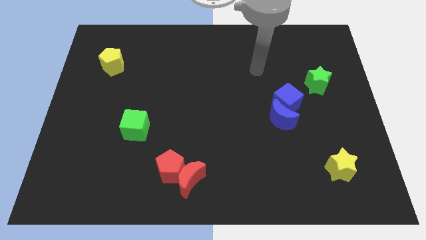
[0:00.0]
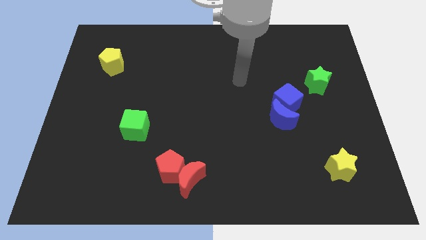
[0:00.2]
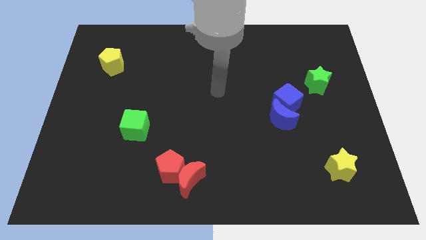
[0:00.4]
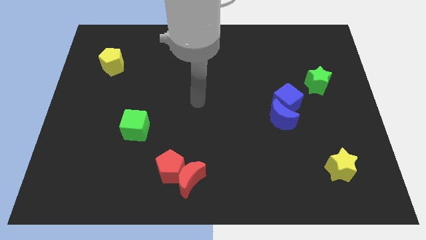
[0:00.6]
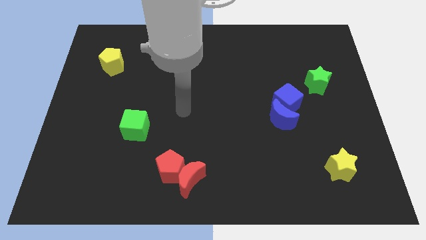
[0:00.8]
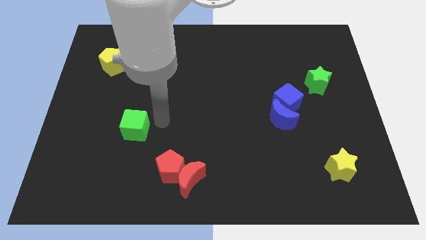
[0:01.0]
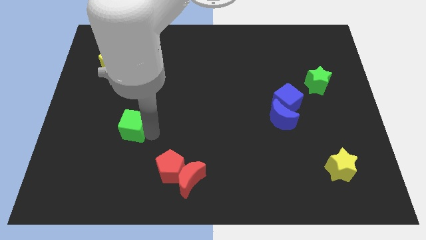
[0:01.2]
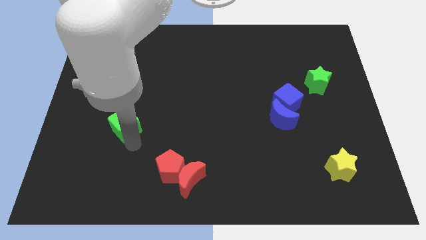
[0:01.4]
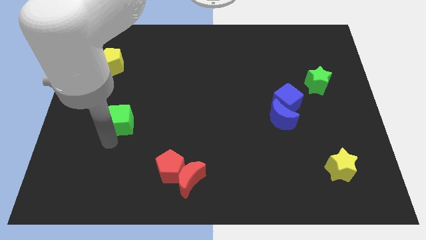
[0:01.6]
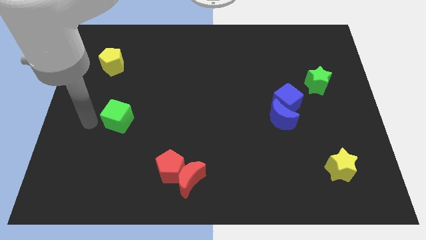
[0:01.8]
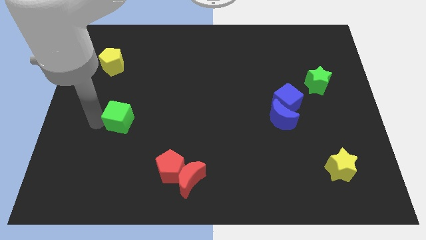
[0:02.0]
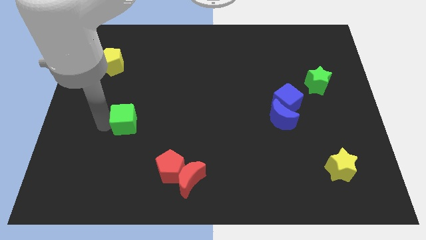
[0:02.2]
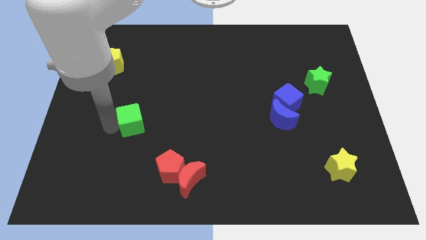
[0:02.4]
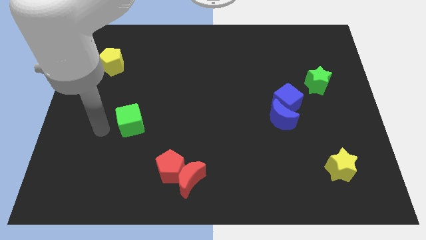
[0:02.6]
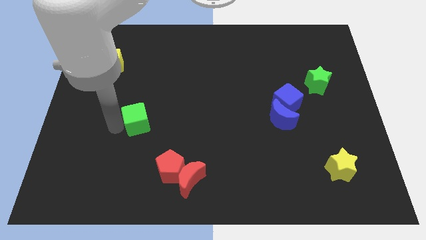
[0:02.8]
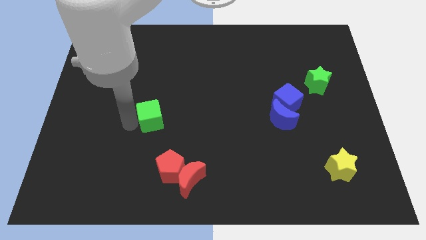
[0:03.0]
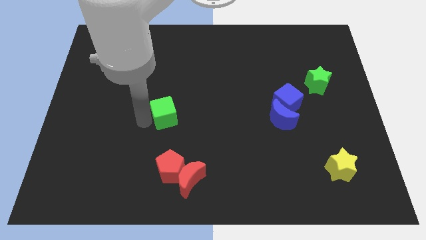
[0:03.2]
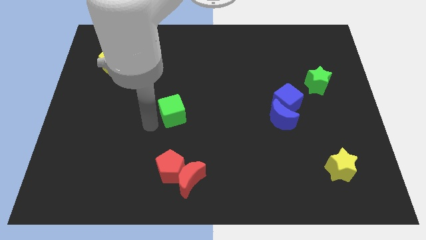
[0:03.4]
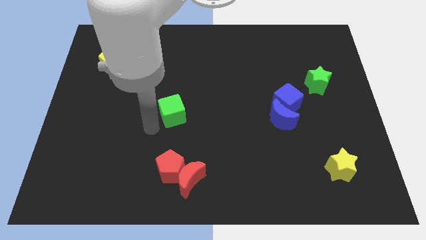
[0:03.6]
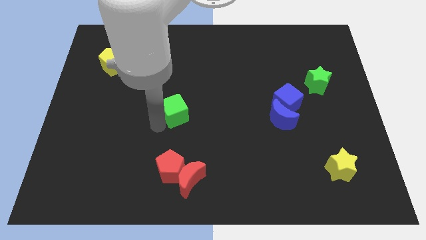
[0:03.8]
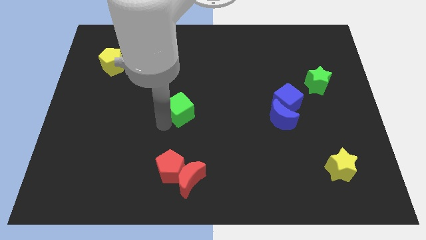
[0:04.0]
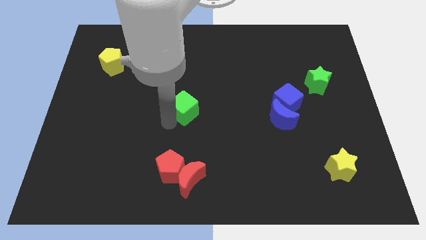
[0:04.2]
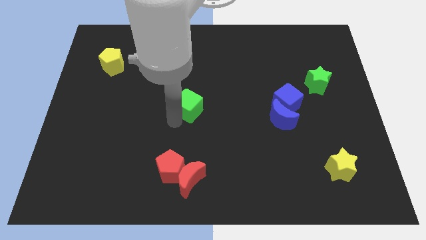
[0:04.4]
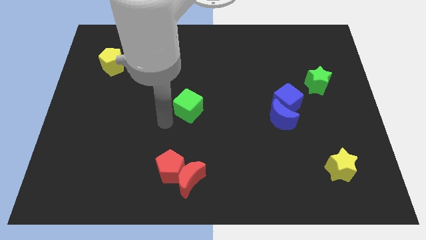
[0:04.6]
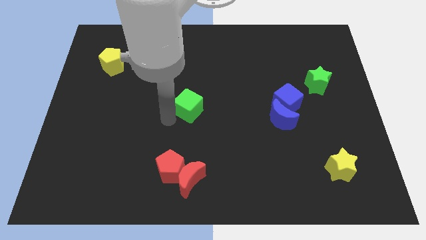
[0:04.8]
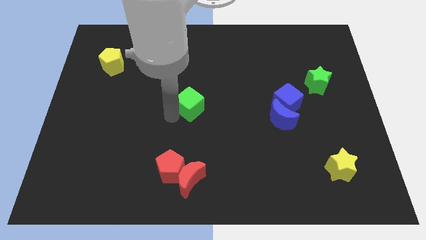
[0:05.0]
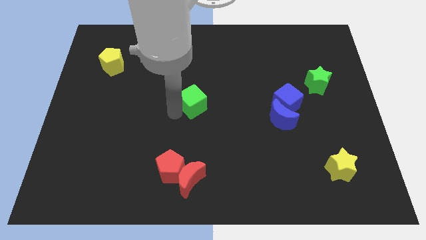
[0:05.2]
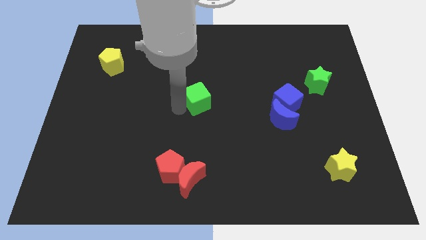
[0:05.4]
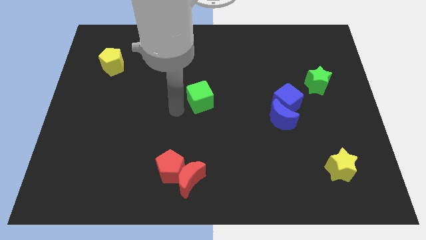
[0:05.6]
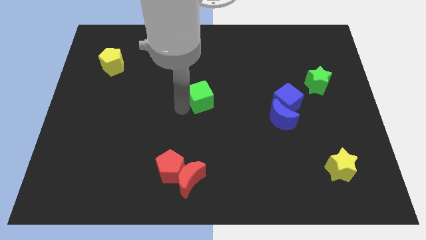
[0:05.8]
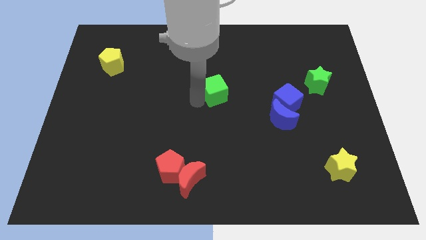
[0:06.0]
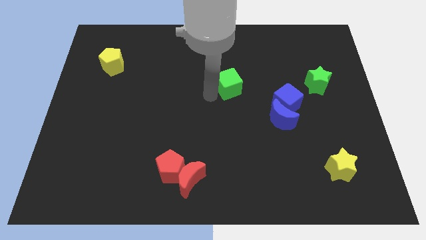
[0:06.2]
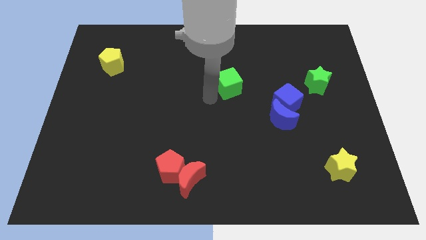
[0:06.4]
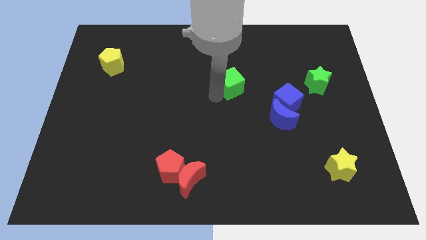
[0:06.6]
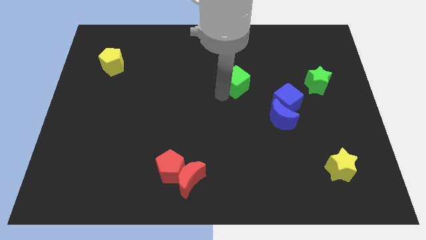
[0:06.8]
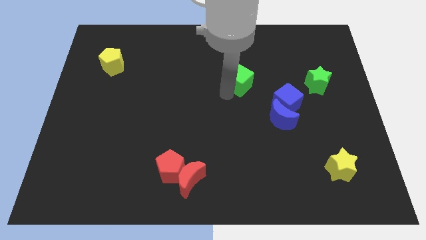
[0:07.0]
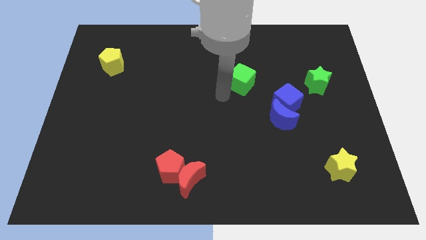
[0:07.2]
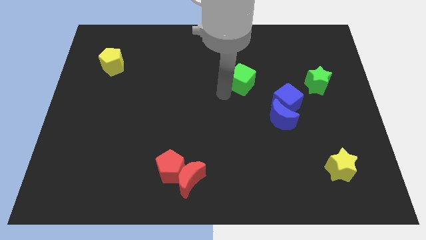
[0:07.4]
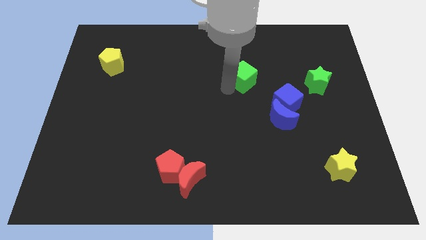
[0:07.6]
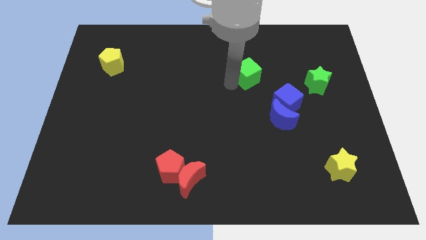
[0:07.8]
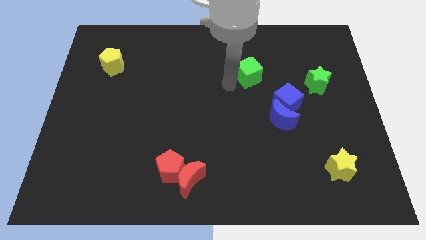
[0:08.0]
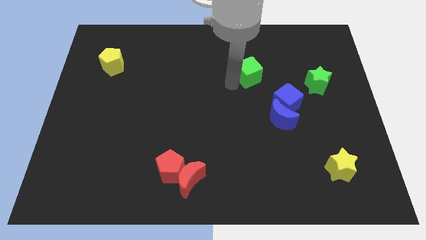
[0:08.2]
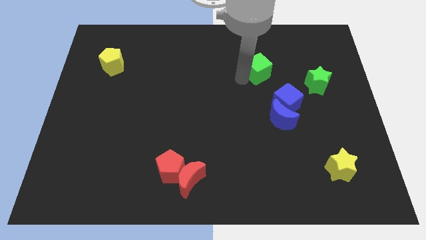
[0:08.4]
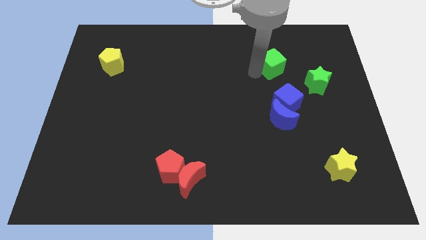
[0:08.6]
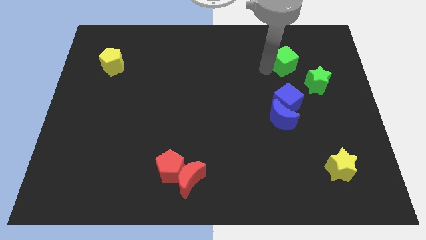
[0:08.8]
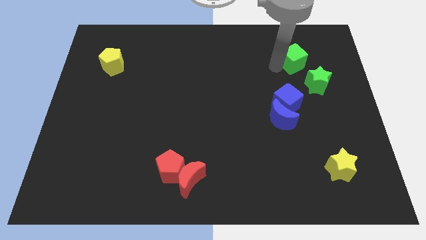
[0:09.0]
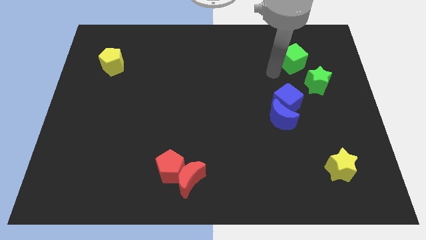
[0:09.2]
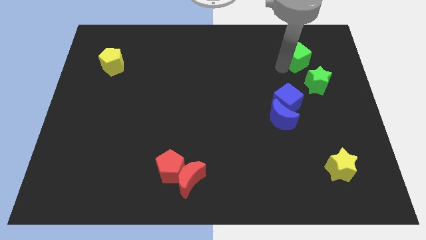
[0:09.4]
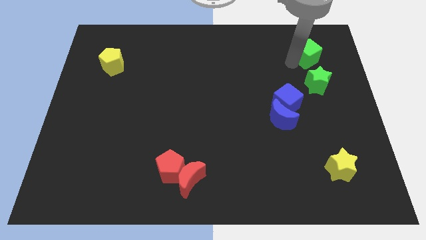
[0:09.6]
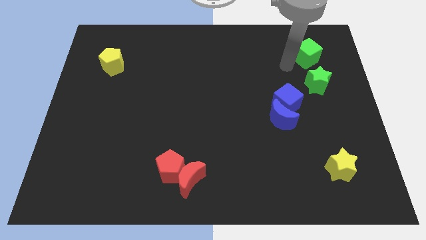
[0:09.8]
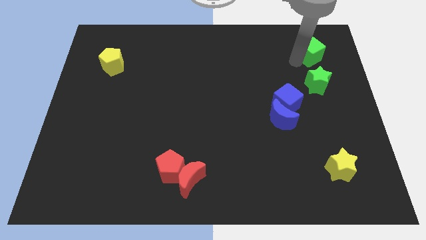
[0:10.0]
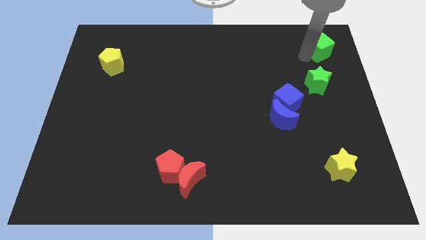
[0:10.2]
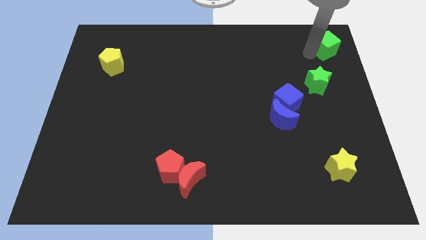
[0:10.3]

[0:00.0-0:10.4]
push the green cube to the top right of the board
